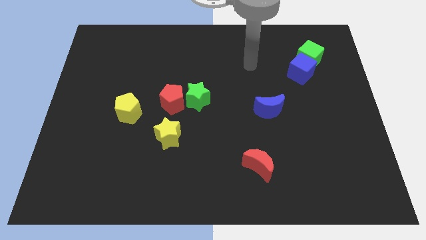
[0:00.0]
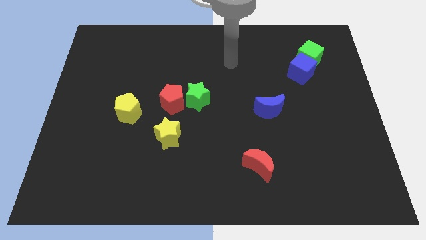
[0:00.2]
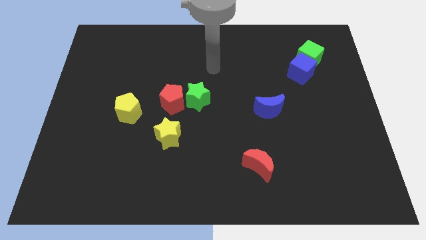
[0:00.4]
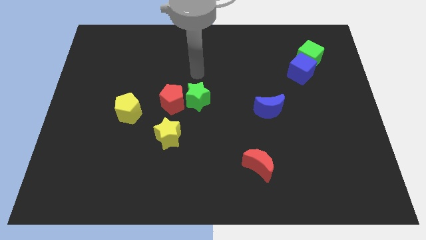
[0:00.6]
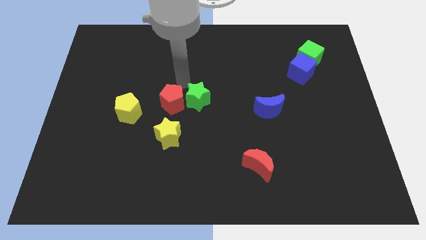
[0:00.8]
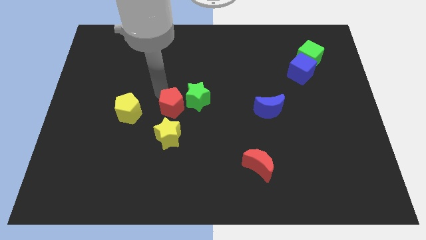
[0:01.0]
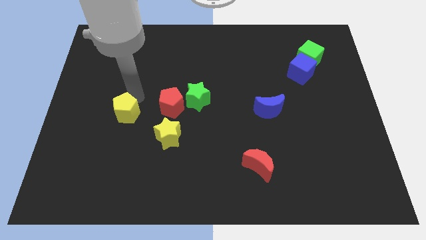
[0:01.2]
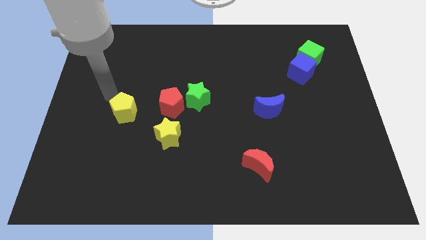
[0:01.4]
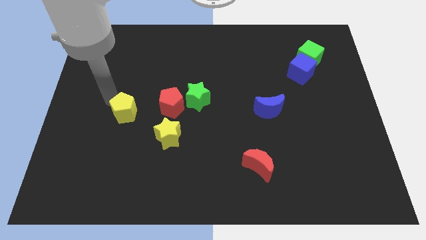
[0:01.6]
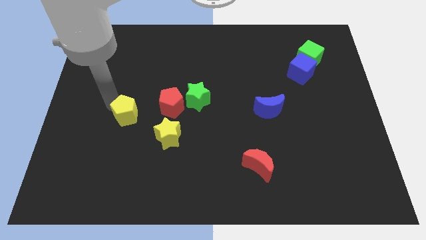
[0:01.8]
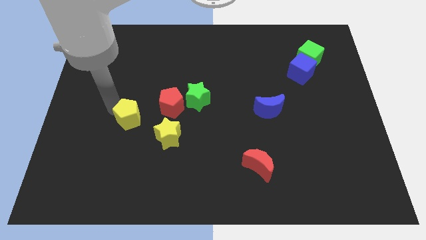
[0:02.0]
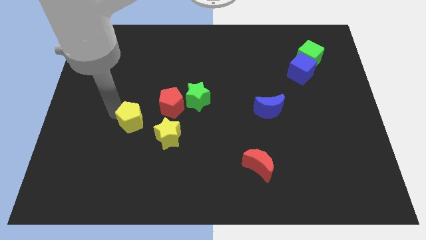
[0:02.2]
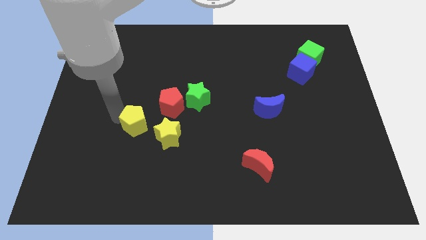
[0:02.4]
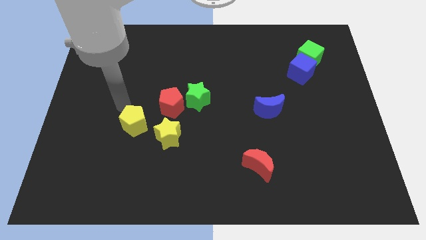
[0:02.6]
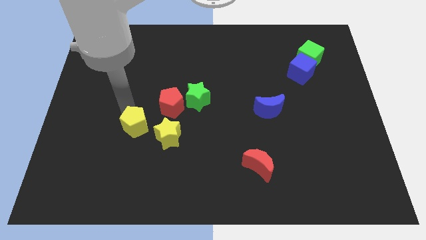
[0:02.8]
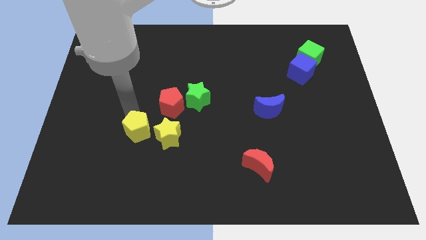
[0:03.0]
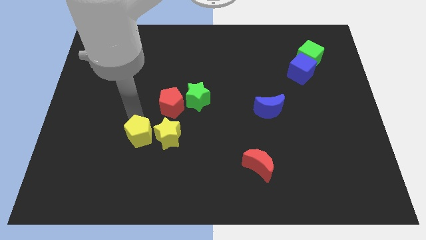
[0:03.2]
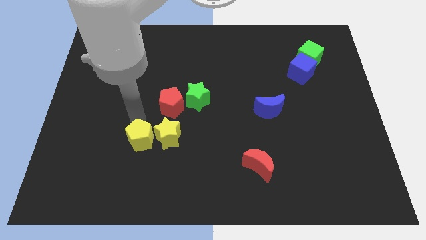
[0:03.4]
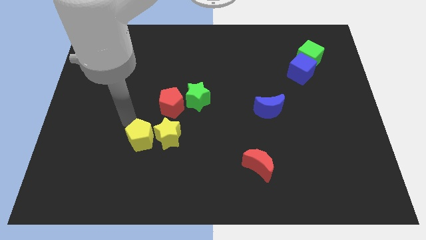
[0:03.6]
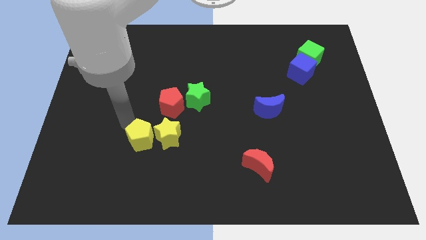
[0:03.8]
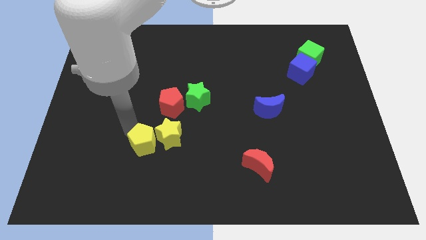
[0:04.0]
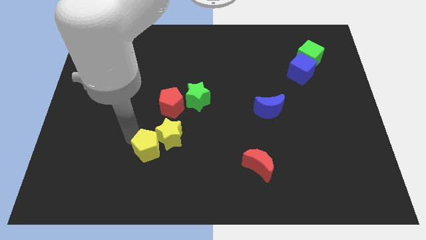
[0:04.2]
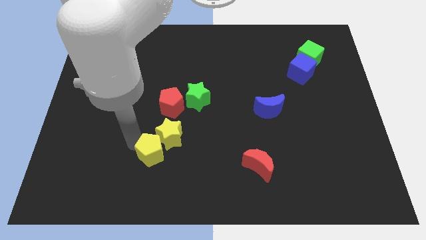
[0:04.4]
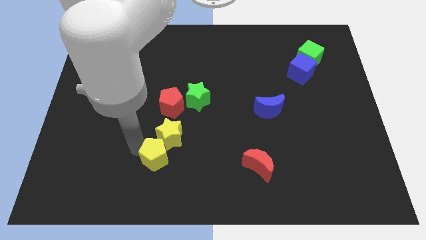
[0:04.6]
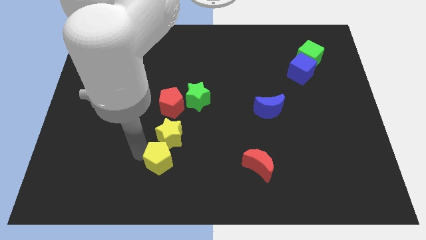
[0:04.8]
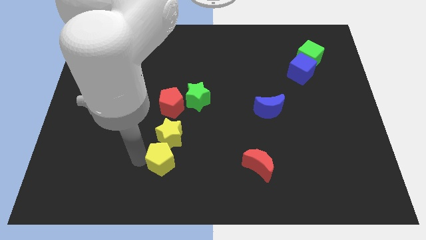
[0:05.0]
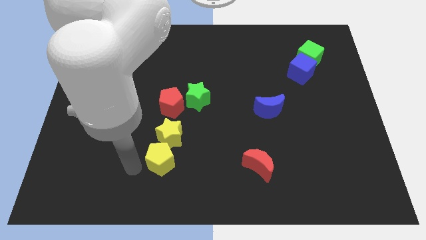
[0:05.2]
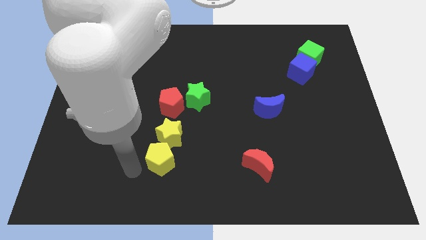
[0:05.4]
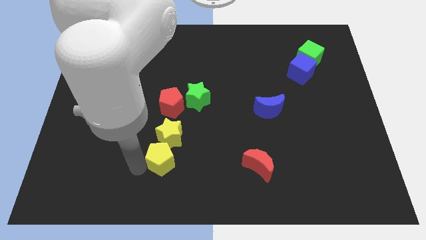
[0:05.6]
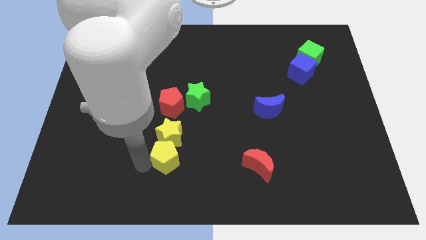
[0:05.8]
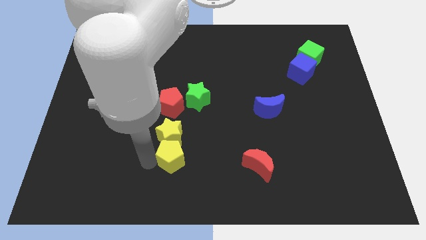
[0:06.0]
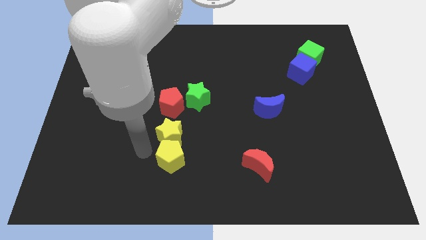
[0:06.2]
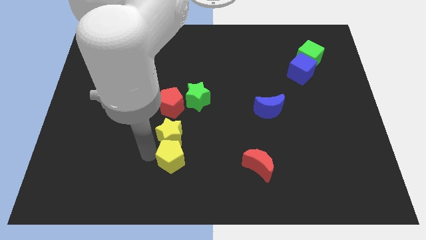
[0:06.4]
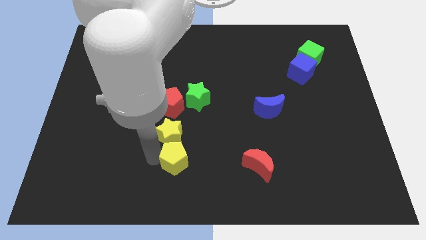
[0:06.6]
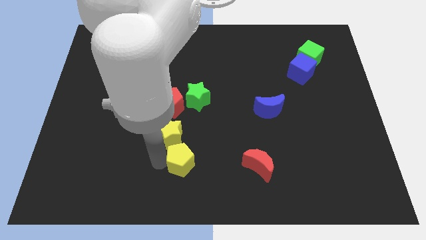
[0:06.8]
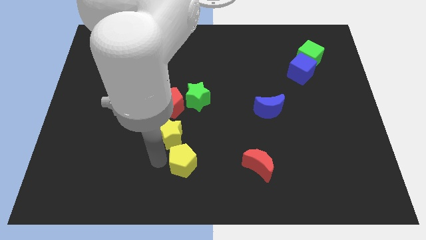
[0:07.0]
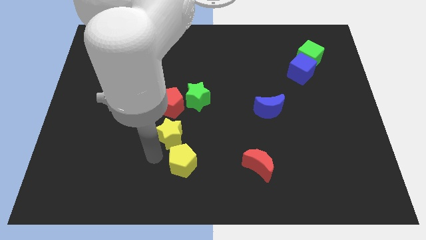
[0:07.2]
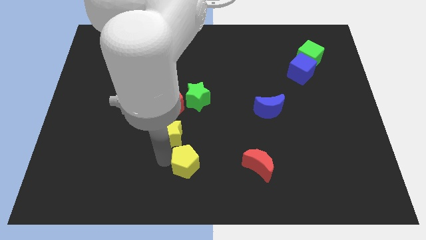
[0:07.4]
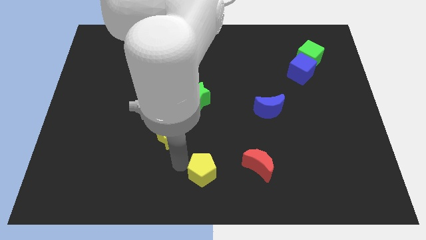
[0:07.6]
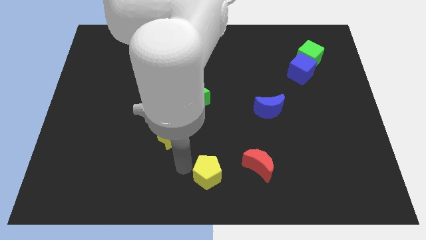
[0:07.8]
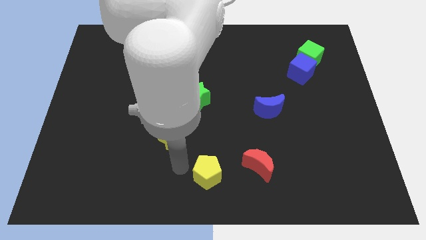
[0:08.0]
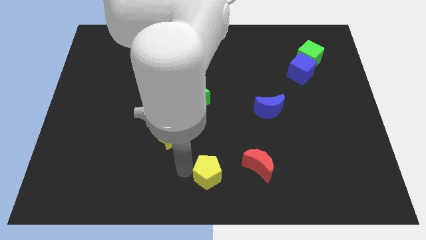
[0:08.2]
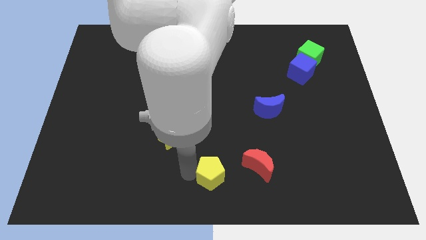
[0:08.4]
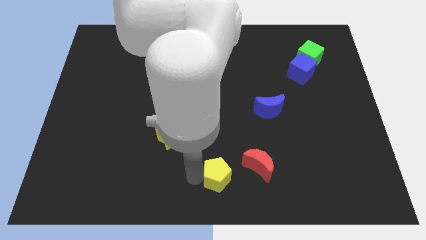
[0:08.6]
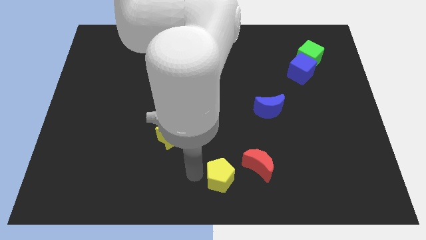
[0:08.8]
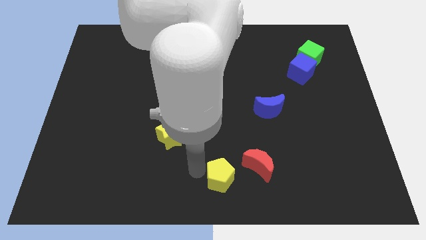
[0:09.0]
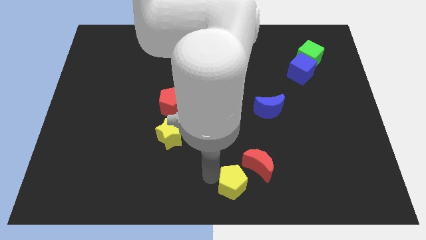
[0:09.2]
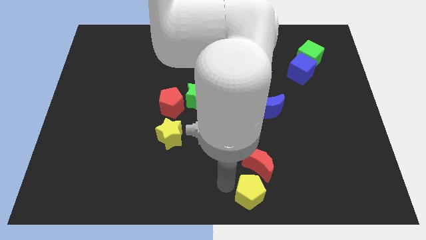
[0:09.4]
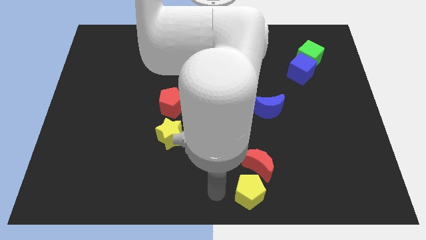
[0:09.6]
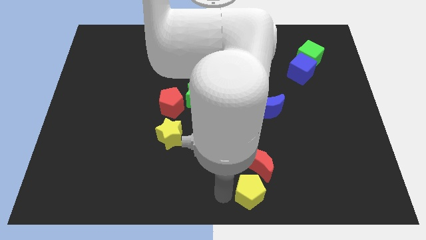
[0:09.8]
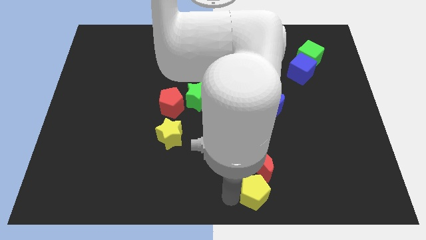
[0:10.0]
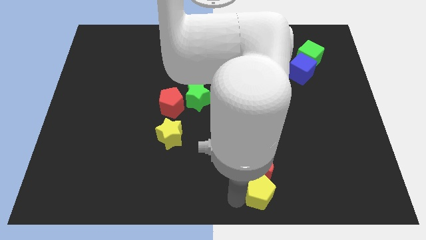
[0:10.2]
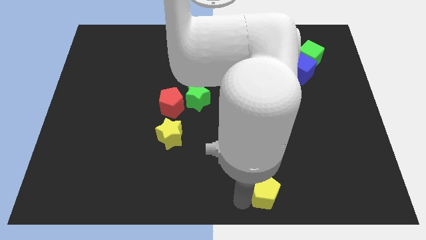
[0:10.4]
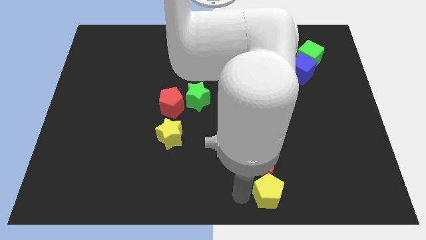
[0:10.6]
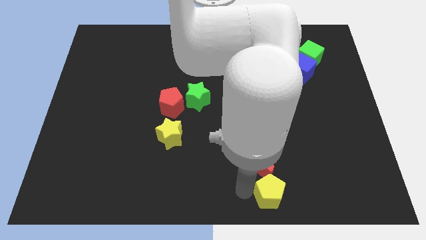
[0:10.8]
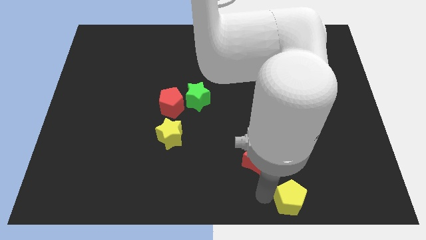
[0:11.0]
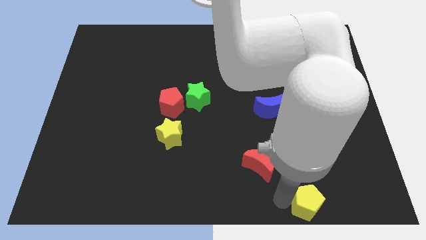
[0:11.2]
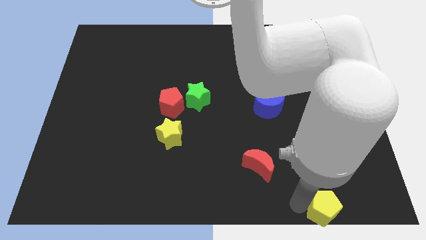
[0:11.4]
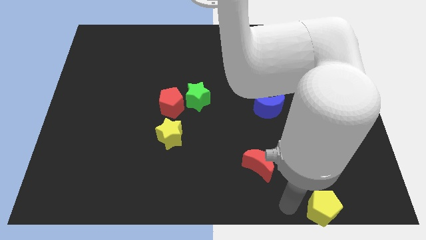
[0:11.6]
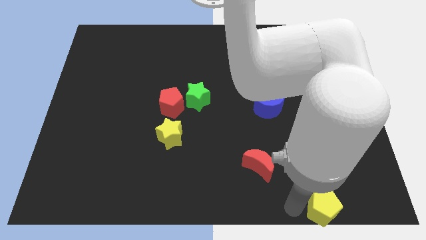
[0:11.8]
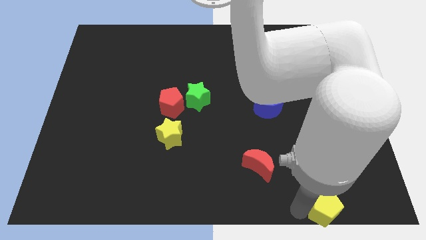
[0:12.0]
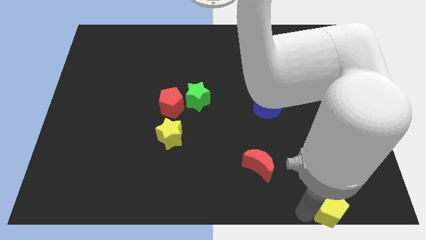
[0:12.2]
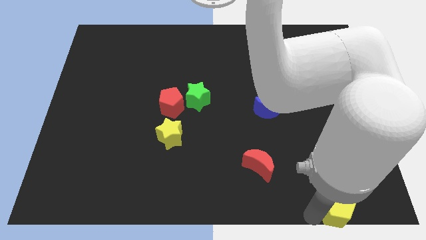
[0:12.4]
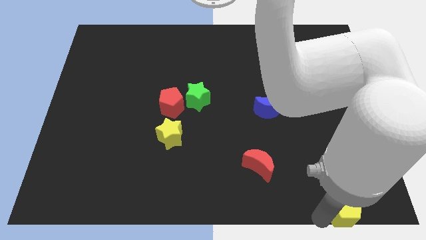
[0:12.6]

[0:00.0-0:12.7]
slide the yellow pentagon to the lower right corner
